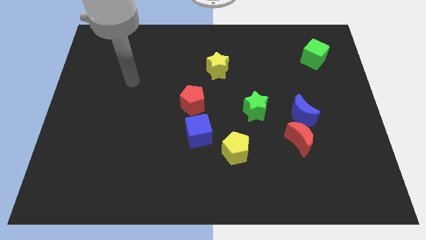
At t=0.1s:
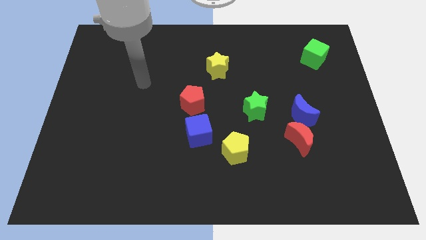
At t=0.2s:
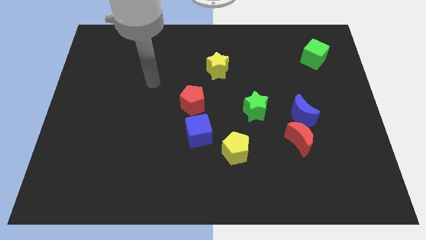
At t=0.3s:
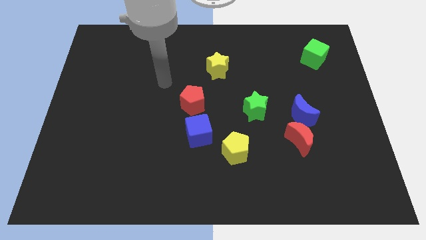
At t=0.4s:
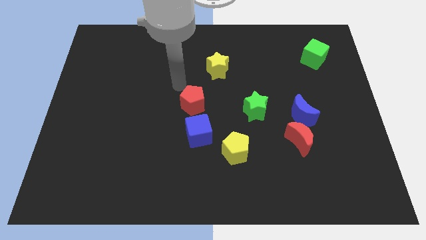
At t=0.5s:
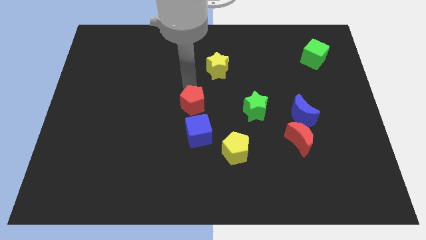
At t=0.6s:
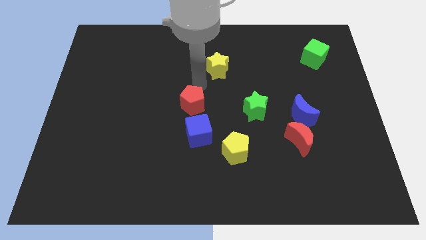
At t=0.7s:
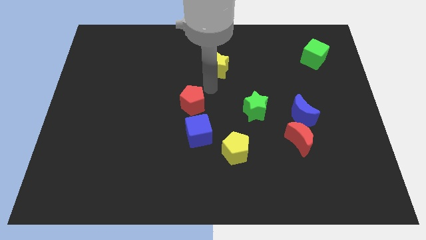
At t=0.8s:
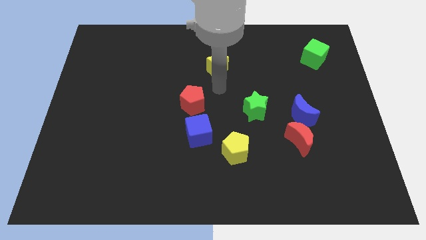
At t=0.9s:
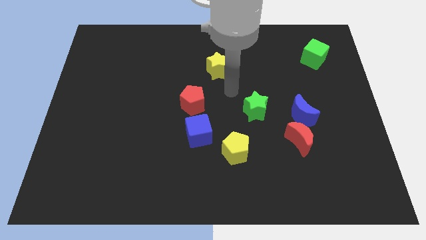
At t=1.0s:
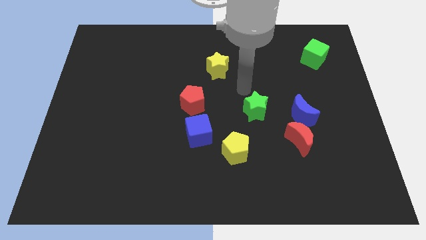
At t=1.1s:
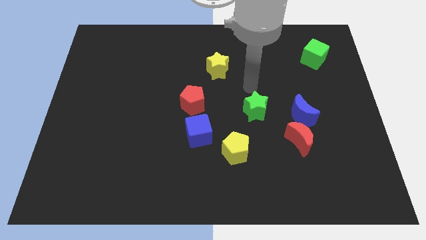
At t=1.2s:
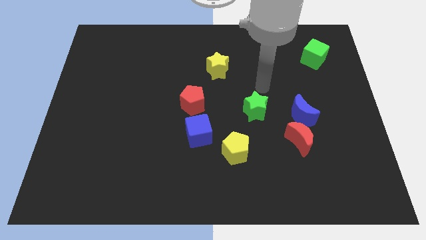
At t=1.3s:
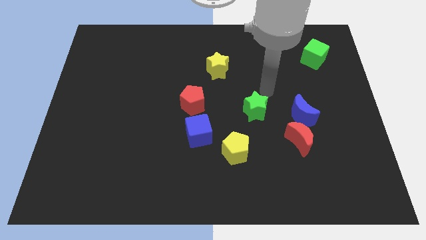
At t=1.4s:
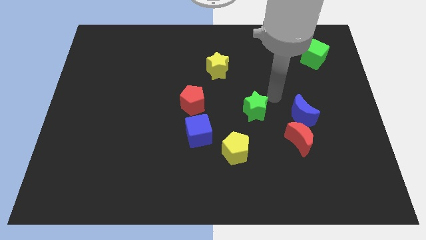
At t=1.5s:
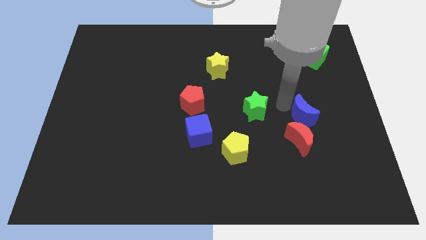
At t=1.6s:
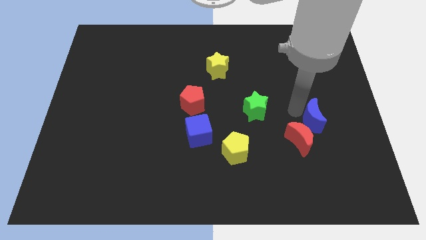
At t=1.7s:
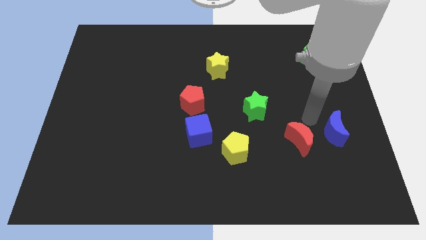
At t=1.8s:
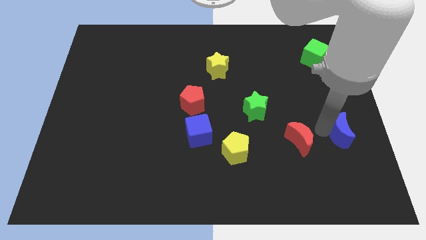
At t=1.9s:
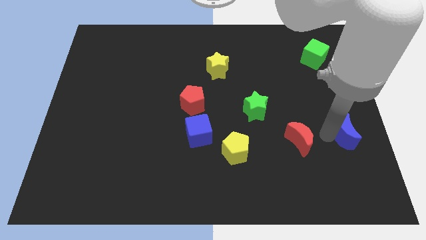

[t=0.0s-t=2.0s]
pull the red moon apart from the blue moon

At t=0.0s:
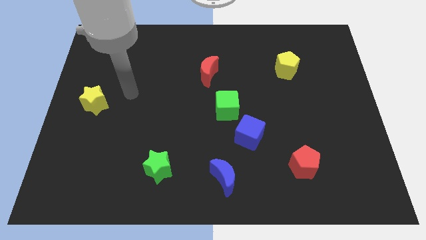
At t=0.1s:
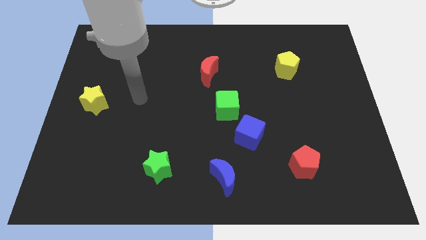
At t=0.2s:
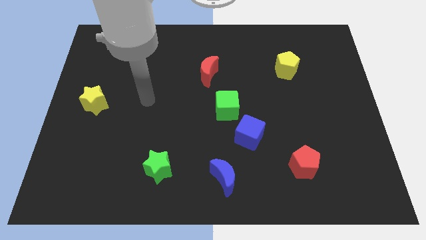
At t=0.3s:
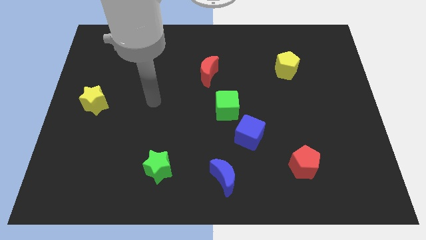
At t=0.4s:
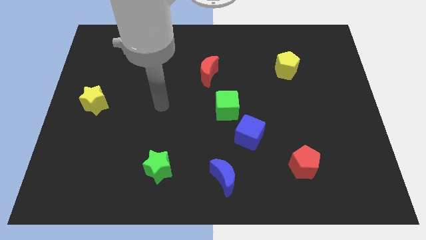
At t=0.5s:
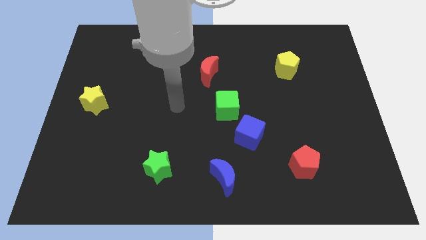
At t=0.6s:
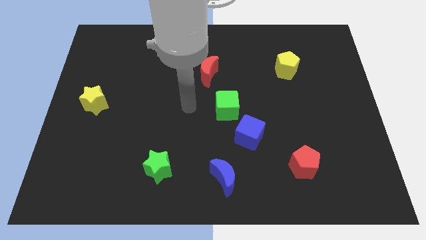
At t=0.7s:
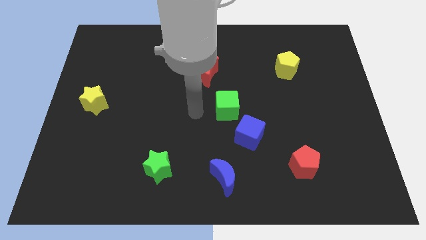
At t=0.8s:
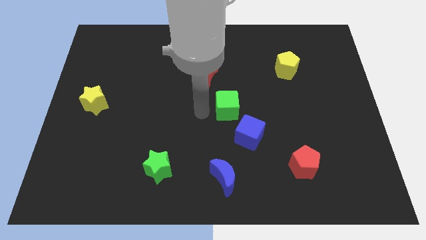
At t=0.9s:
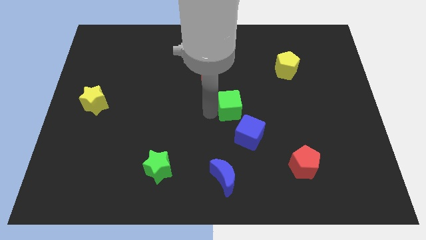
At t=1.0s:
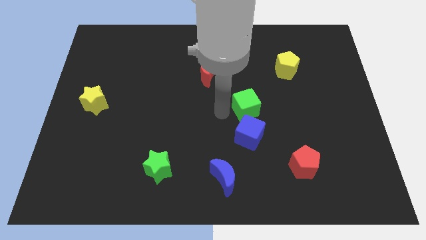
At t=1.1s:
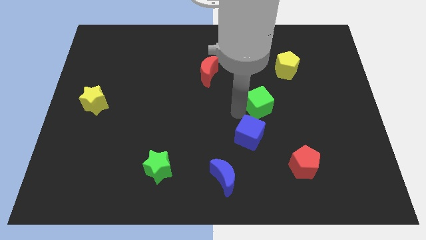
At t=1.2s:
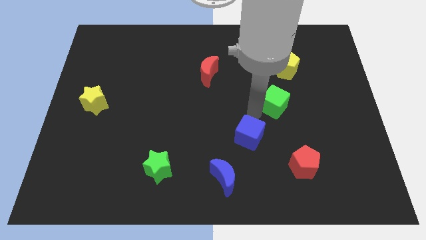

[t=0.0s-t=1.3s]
separate the blue cube from the green cube

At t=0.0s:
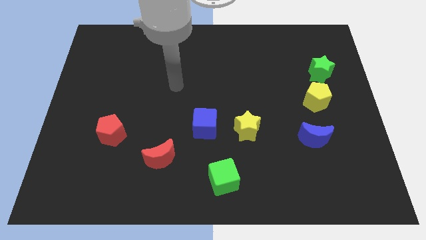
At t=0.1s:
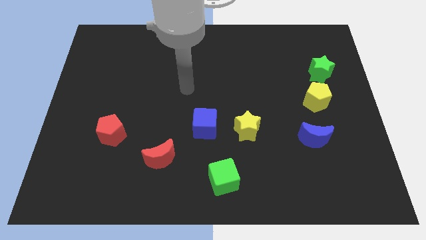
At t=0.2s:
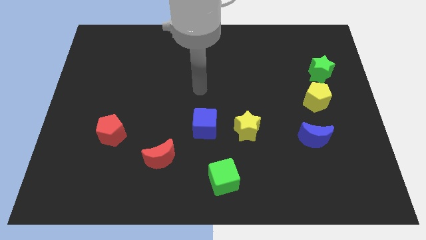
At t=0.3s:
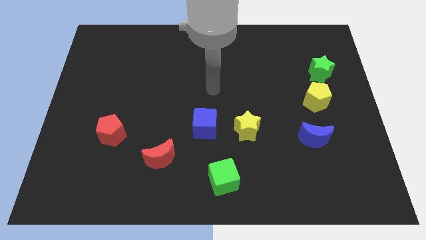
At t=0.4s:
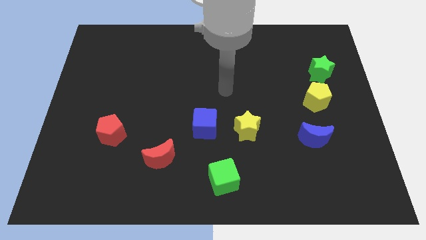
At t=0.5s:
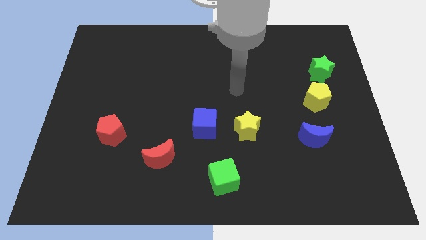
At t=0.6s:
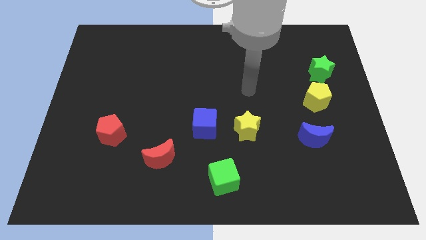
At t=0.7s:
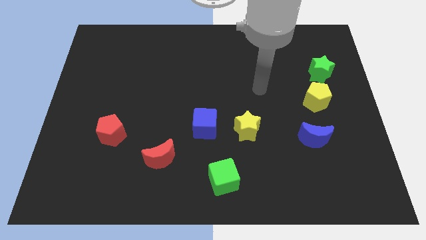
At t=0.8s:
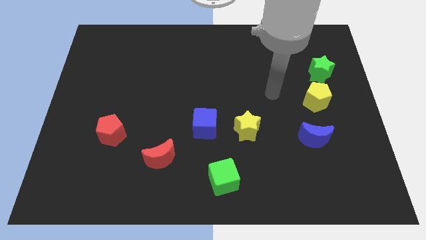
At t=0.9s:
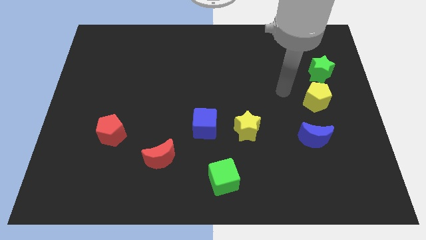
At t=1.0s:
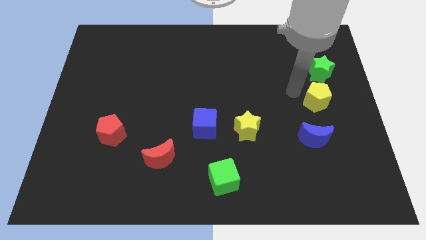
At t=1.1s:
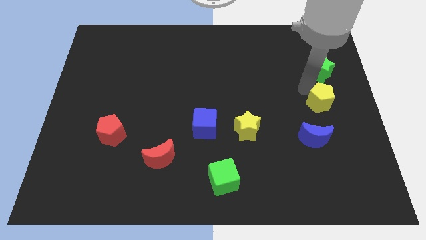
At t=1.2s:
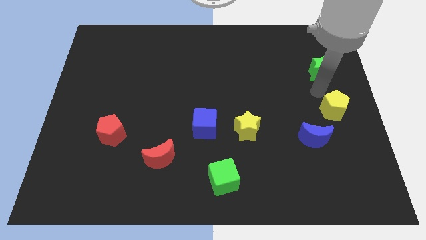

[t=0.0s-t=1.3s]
separate the green star from the yellow pentagon

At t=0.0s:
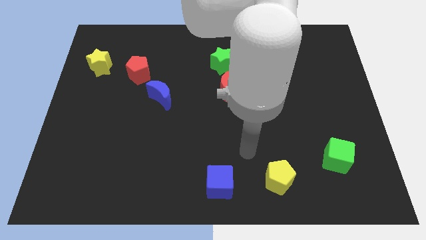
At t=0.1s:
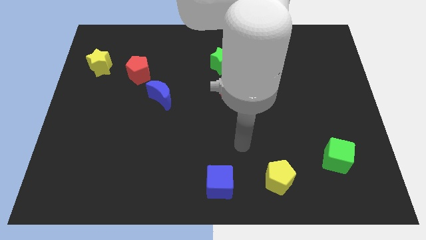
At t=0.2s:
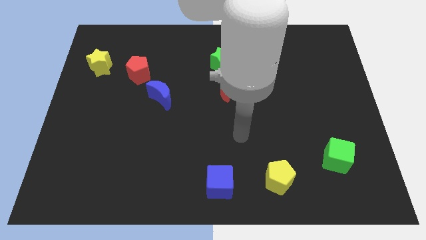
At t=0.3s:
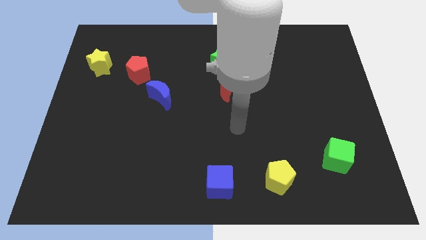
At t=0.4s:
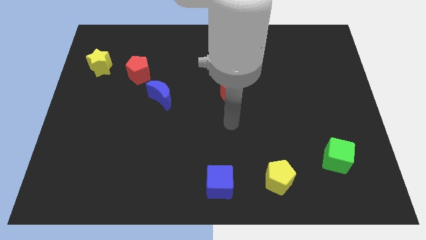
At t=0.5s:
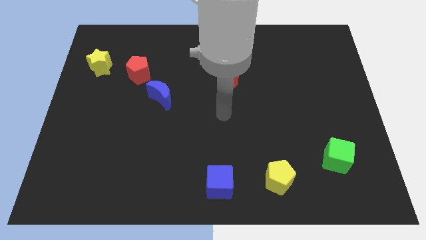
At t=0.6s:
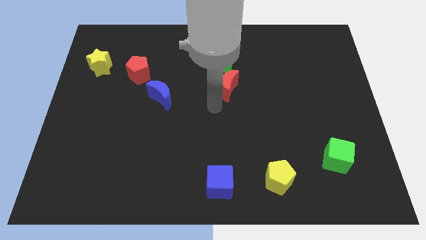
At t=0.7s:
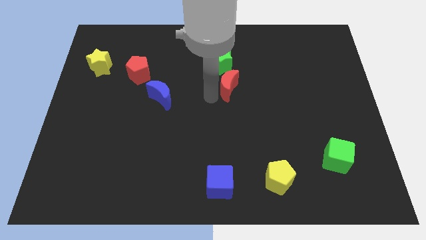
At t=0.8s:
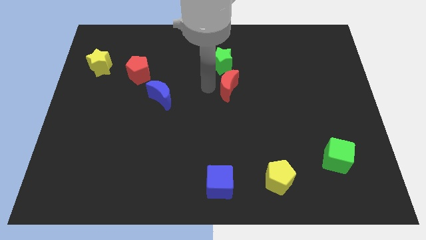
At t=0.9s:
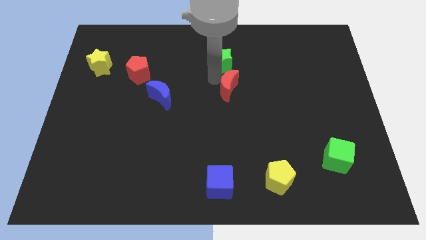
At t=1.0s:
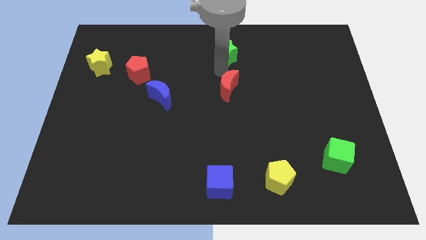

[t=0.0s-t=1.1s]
move the red moon away from the green star

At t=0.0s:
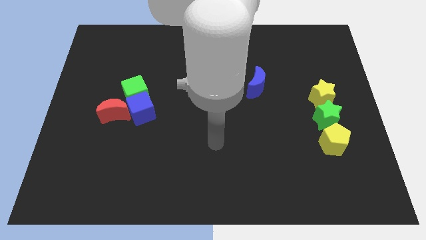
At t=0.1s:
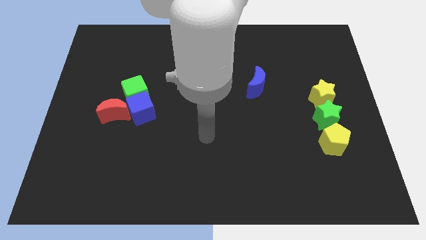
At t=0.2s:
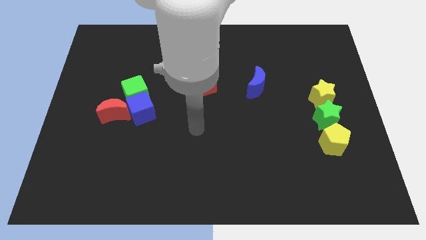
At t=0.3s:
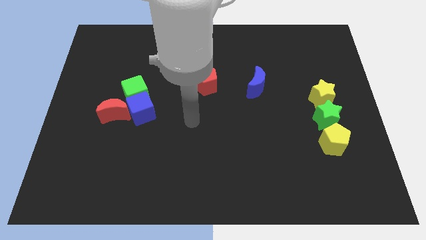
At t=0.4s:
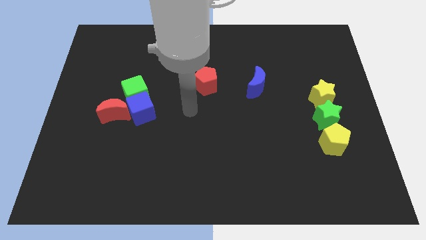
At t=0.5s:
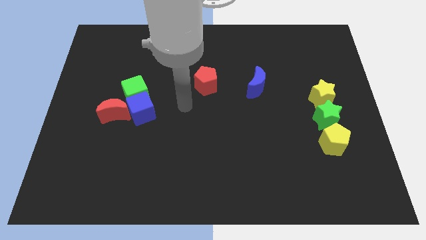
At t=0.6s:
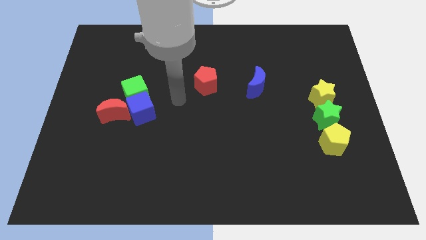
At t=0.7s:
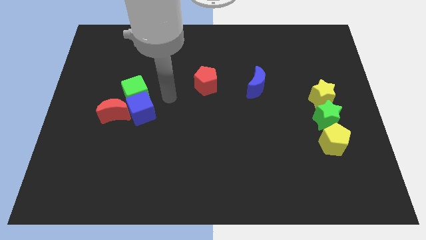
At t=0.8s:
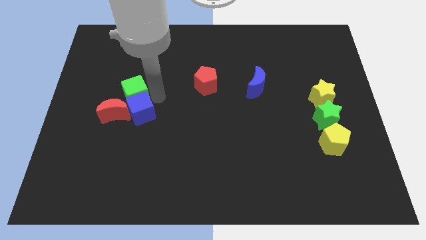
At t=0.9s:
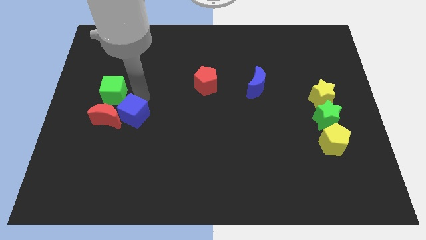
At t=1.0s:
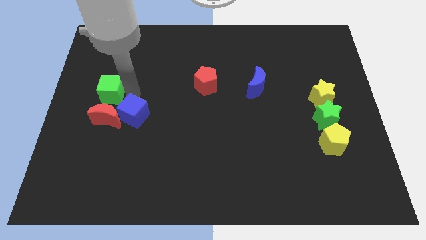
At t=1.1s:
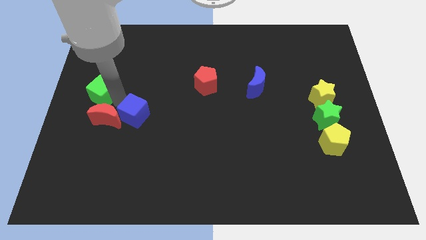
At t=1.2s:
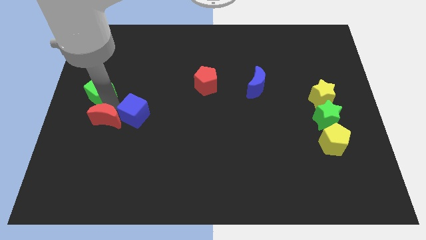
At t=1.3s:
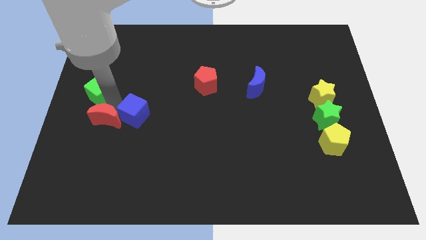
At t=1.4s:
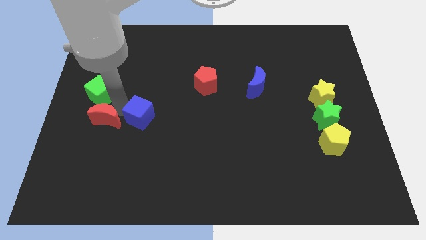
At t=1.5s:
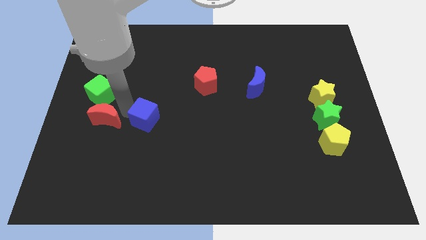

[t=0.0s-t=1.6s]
separate the blue cube from the green cube and red moon

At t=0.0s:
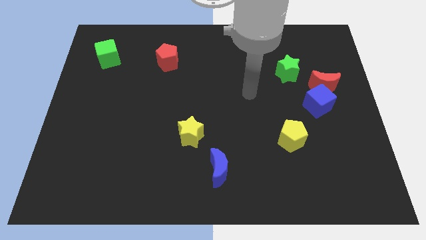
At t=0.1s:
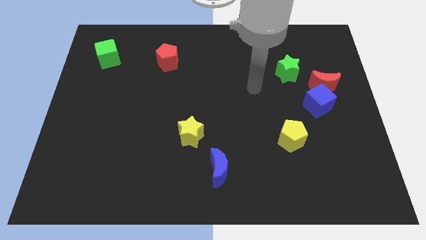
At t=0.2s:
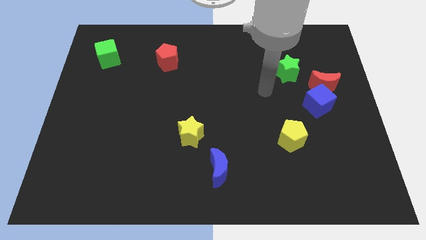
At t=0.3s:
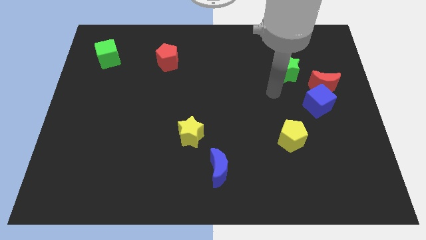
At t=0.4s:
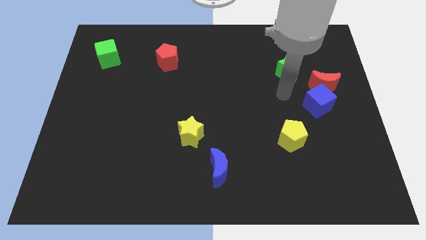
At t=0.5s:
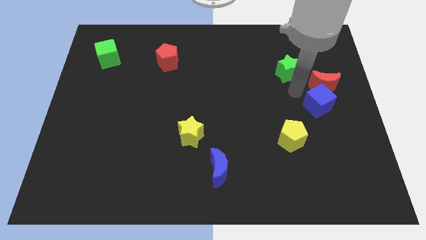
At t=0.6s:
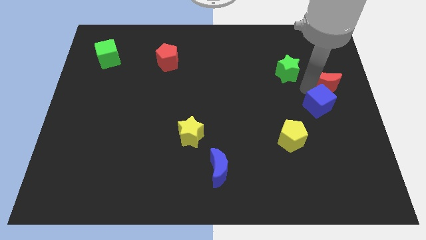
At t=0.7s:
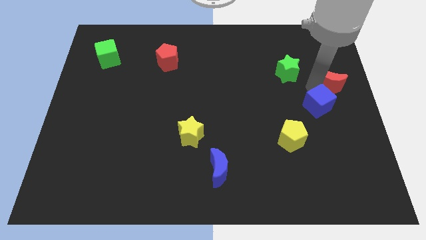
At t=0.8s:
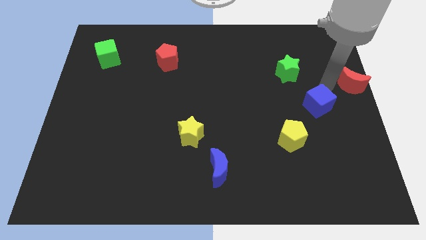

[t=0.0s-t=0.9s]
separate the blue cube from the red moon

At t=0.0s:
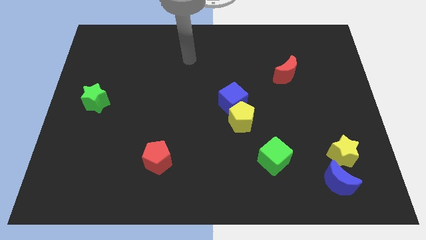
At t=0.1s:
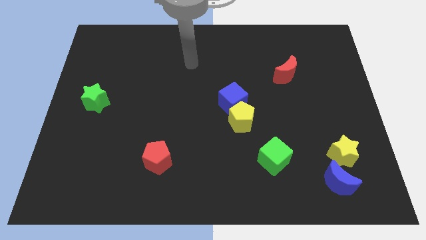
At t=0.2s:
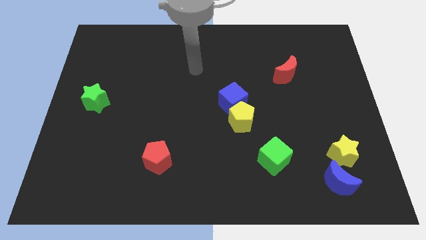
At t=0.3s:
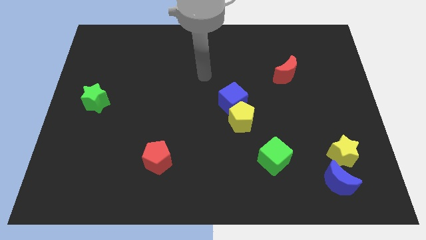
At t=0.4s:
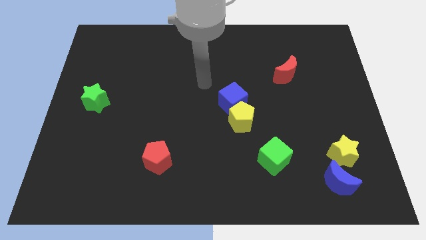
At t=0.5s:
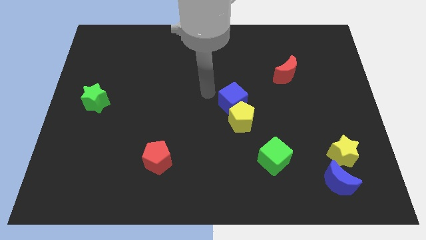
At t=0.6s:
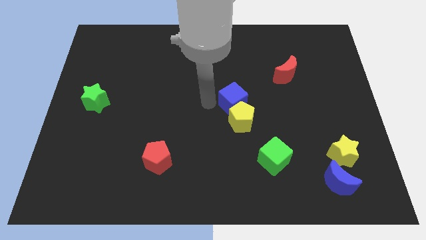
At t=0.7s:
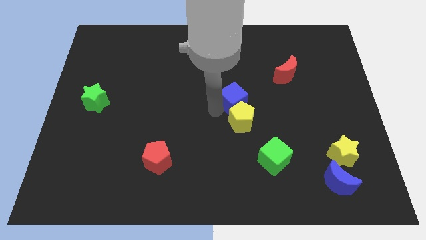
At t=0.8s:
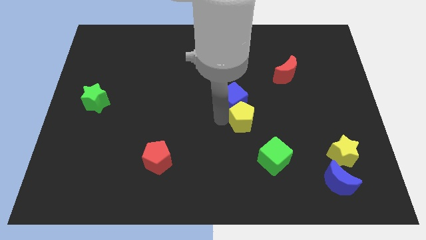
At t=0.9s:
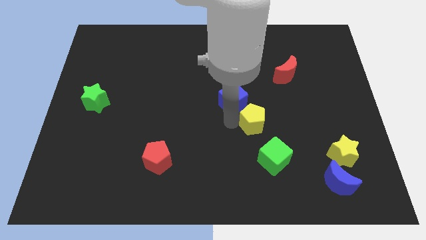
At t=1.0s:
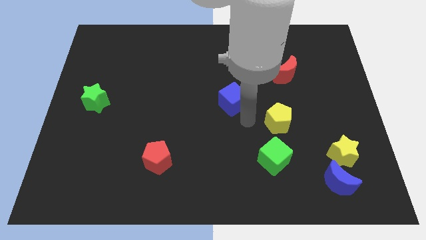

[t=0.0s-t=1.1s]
move the blue cube away from the yellow pentagon
